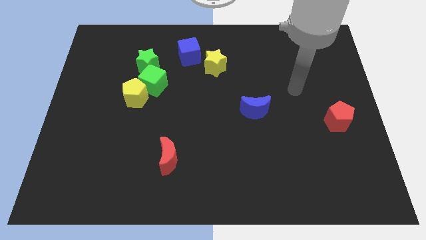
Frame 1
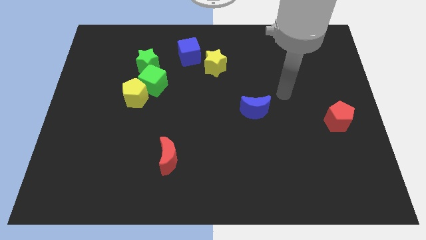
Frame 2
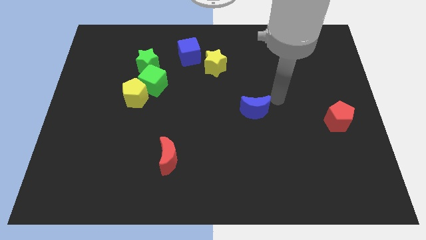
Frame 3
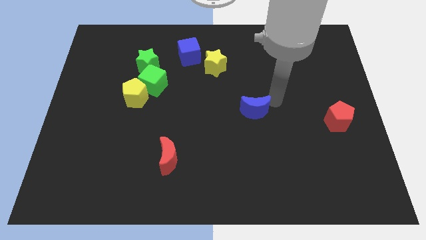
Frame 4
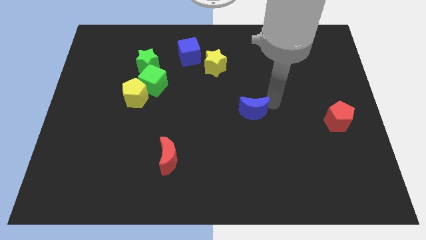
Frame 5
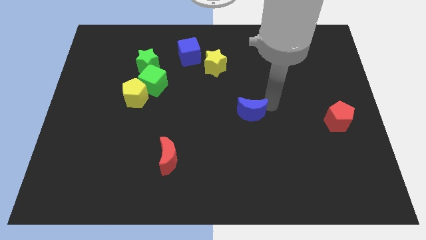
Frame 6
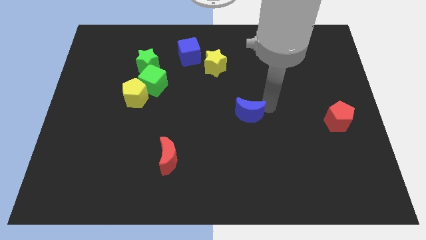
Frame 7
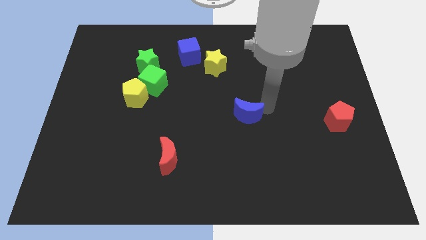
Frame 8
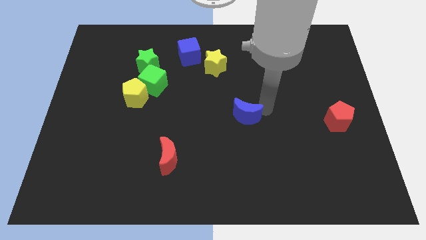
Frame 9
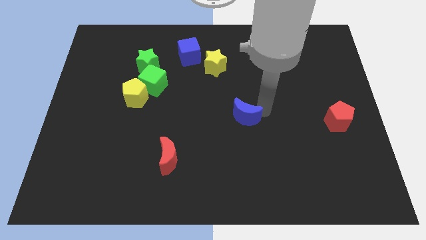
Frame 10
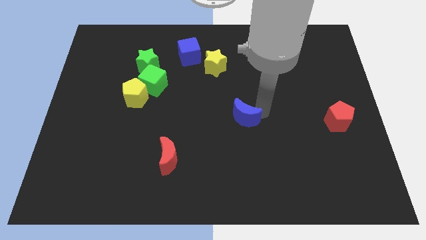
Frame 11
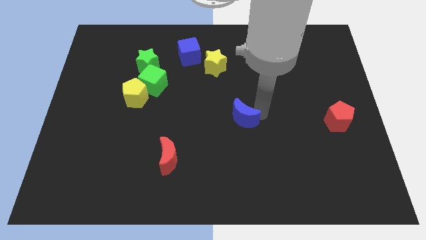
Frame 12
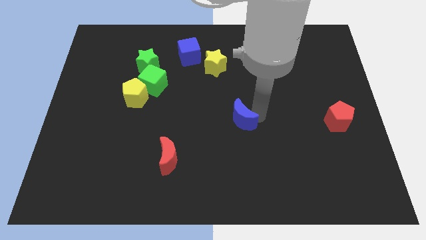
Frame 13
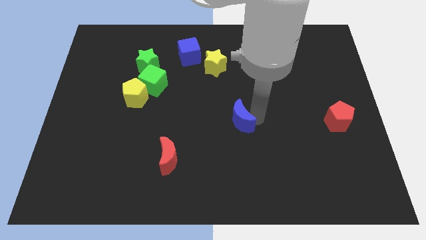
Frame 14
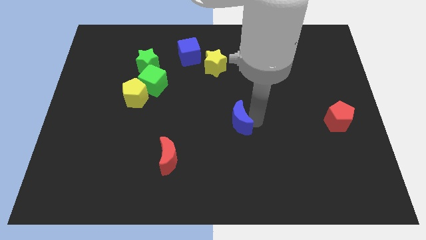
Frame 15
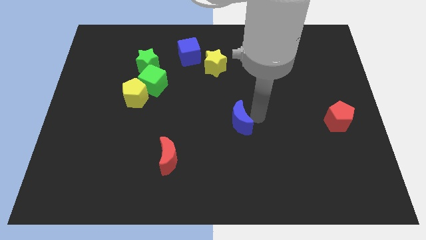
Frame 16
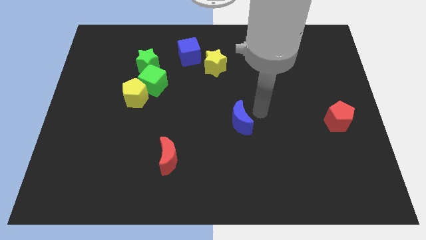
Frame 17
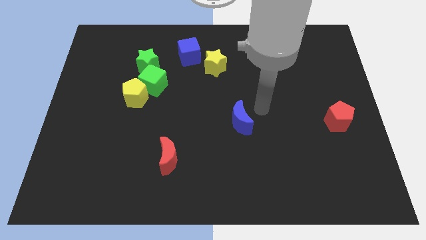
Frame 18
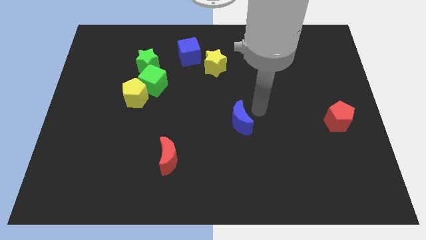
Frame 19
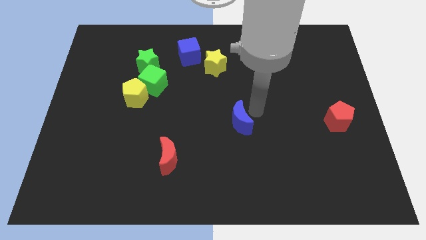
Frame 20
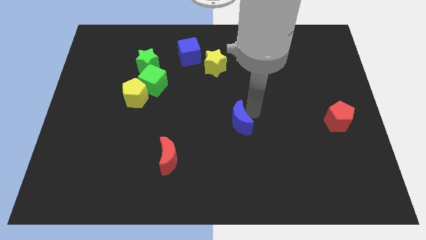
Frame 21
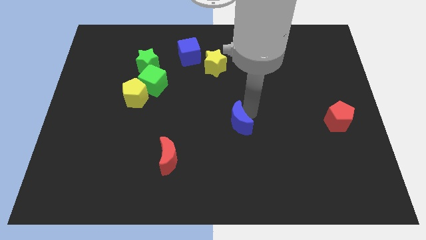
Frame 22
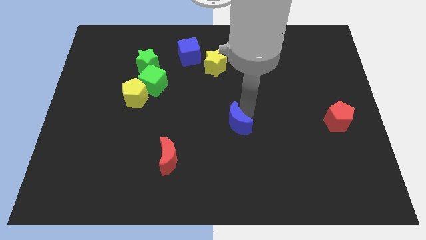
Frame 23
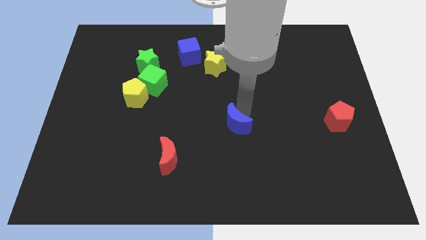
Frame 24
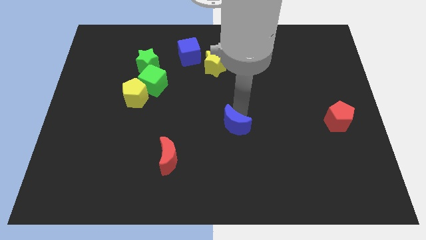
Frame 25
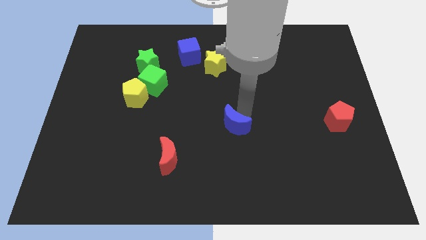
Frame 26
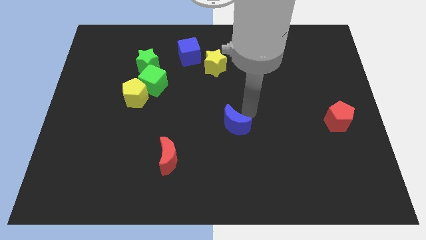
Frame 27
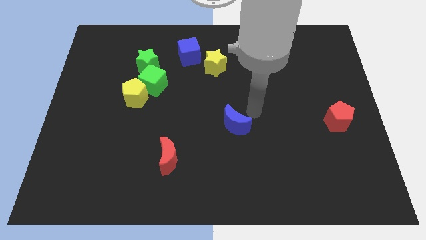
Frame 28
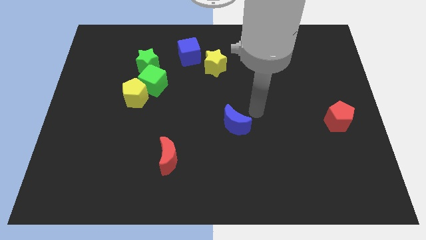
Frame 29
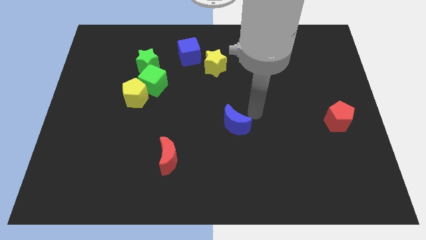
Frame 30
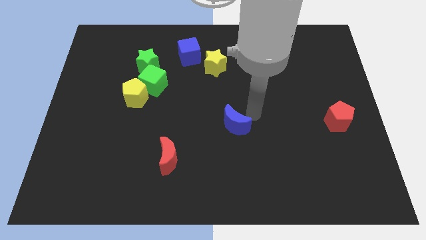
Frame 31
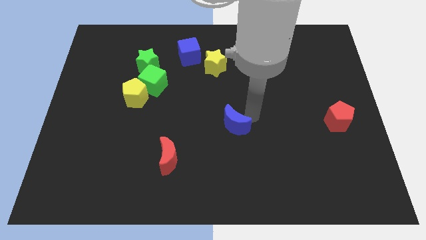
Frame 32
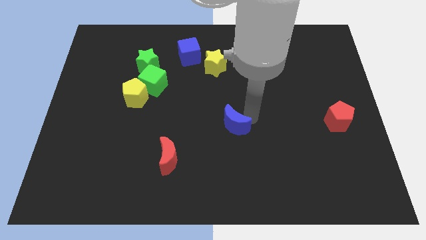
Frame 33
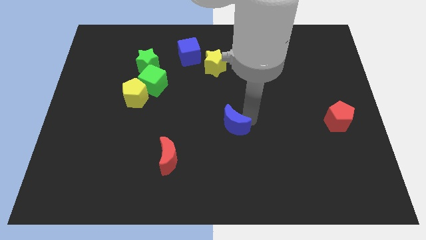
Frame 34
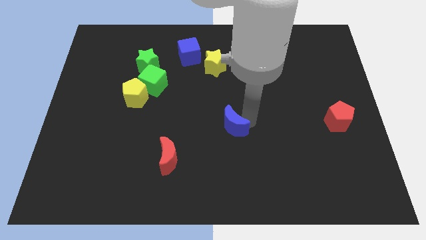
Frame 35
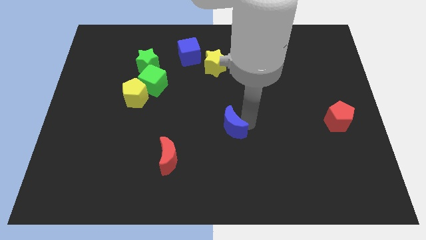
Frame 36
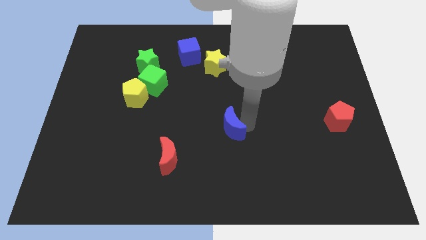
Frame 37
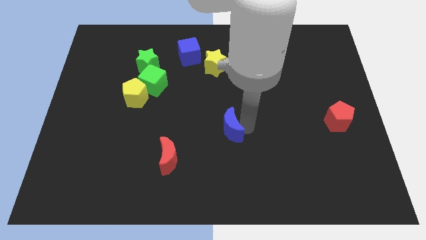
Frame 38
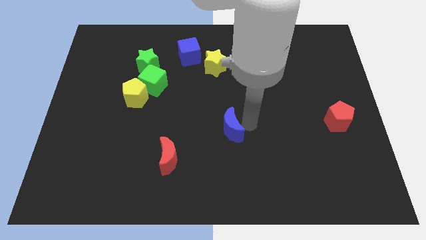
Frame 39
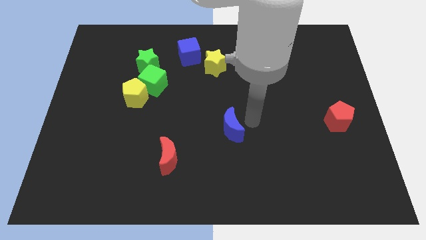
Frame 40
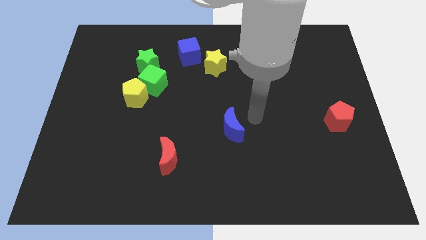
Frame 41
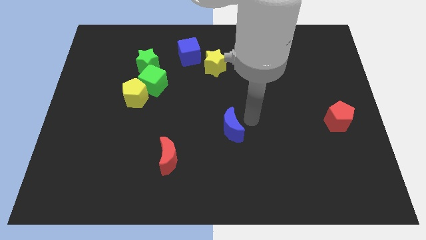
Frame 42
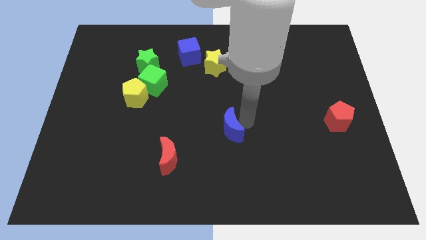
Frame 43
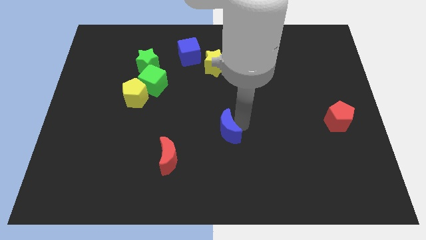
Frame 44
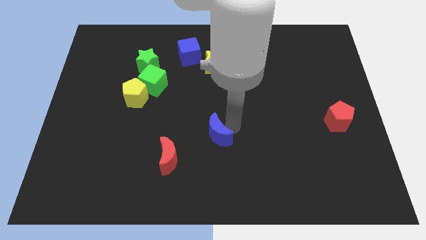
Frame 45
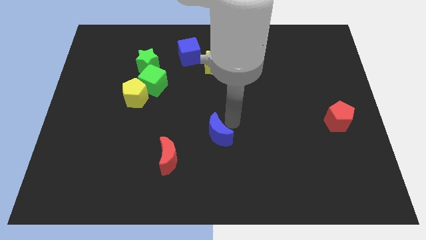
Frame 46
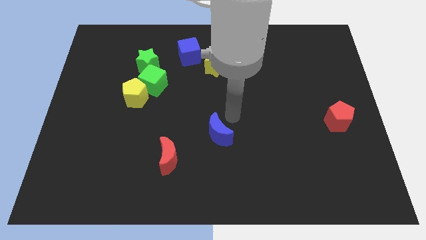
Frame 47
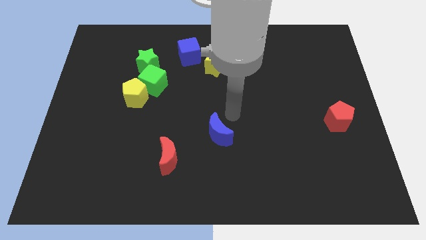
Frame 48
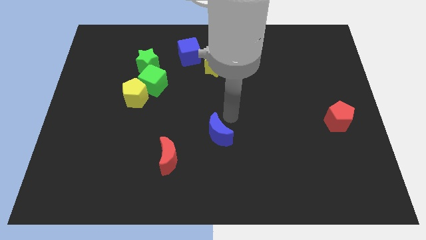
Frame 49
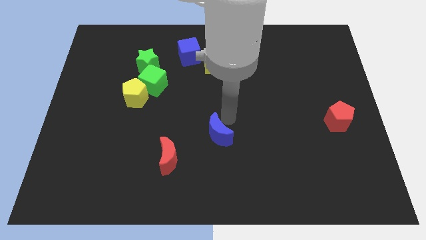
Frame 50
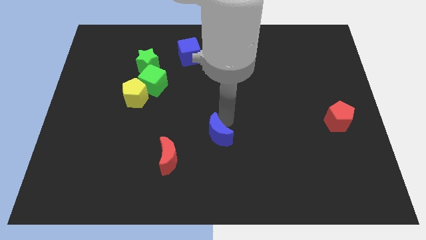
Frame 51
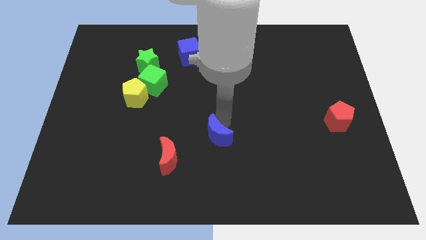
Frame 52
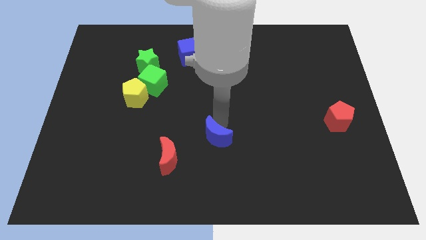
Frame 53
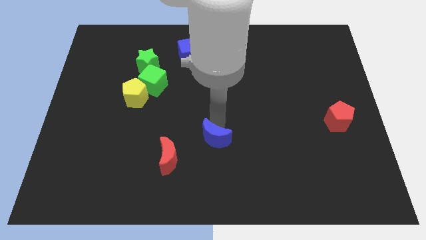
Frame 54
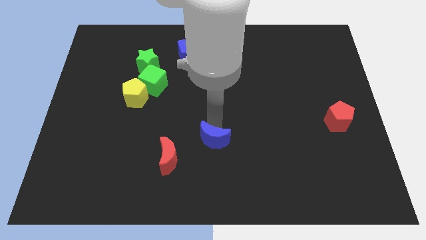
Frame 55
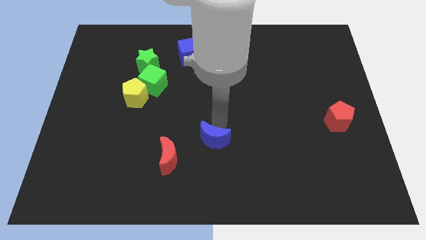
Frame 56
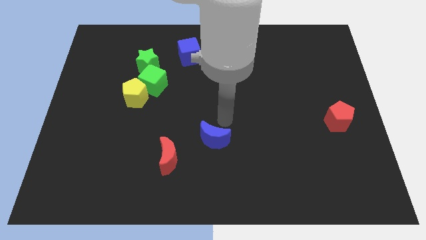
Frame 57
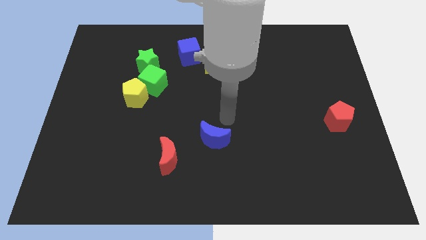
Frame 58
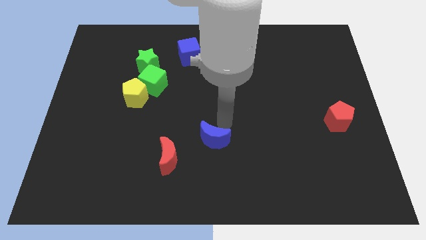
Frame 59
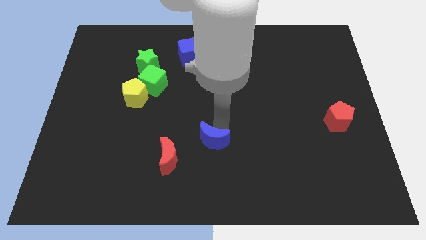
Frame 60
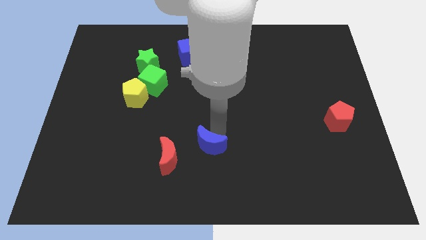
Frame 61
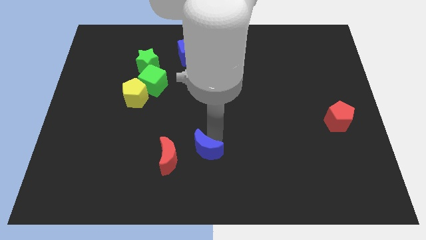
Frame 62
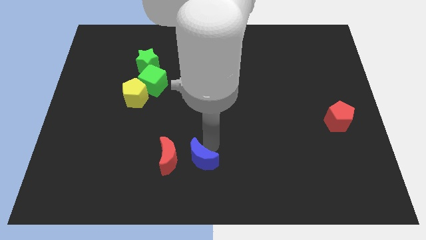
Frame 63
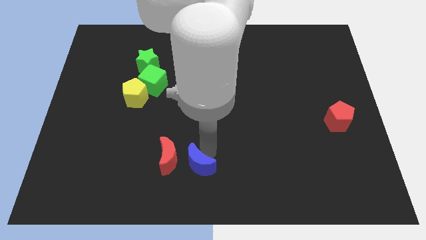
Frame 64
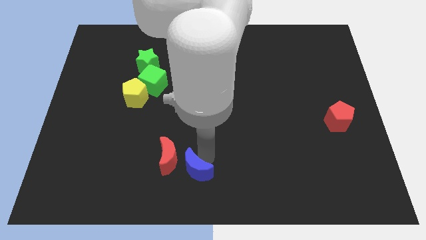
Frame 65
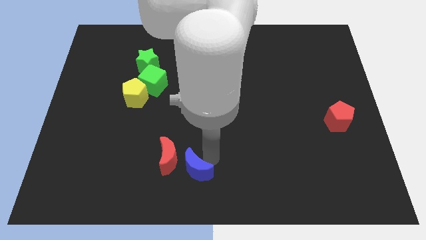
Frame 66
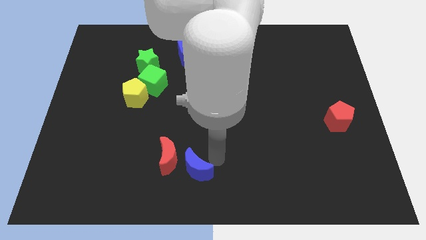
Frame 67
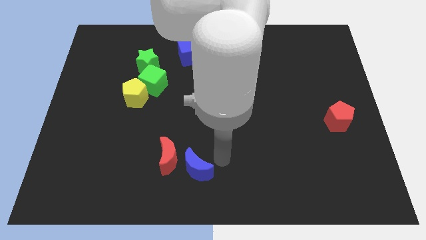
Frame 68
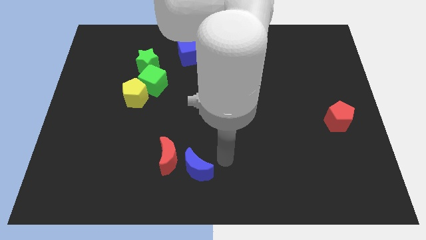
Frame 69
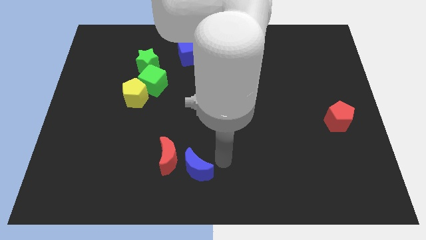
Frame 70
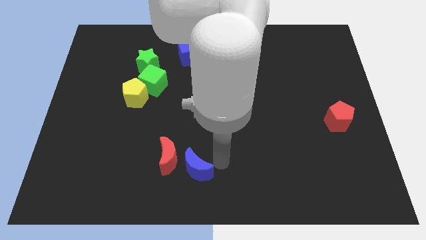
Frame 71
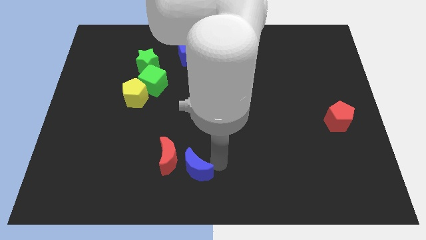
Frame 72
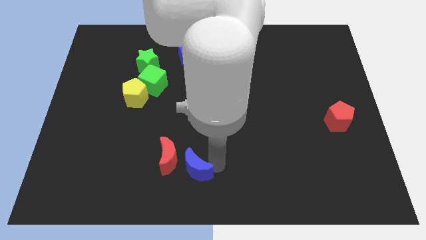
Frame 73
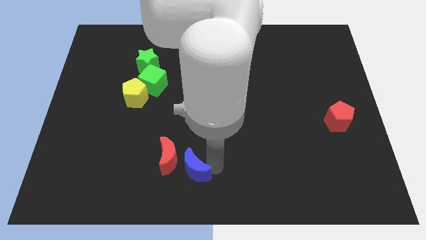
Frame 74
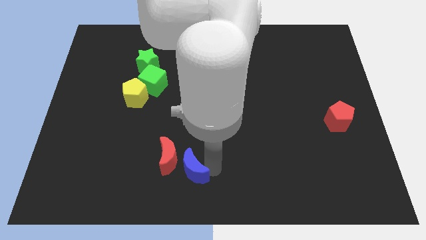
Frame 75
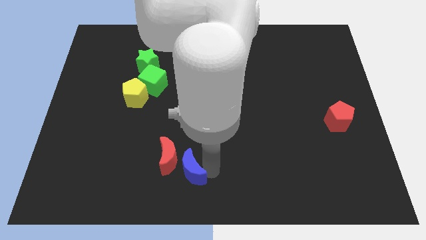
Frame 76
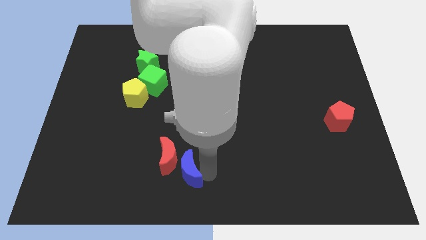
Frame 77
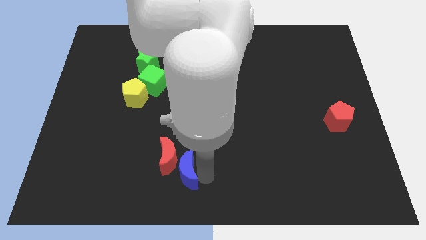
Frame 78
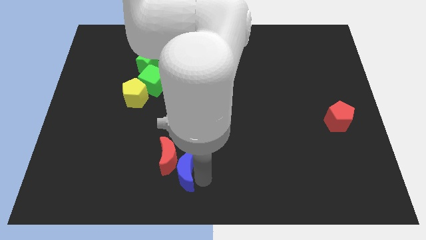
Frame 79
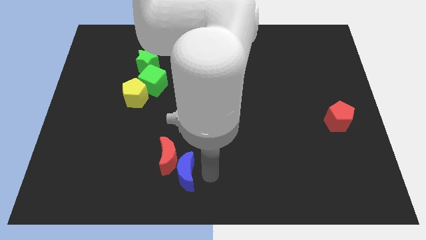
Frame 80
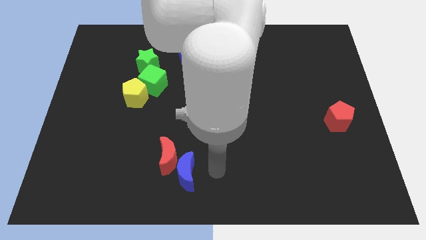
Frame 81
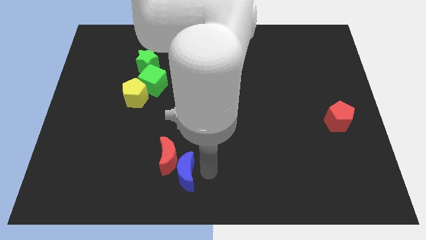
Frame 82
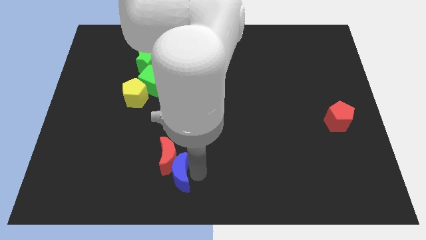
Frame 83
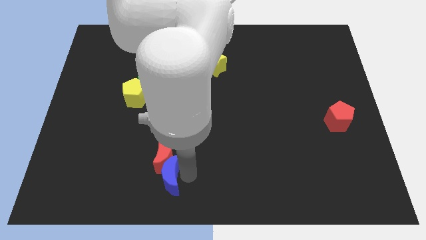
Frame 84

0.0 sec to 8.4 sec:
move the blue moon to the bottom left of the red moon
